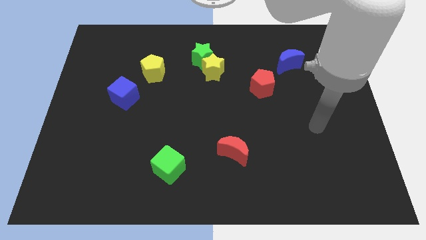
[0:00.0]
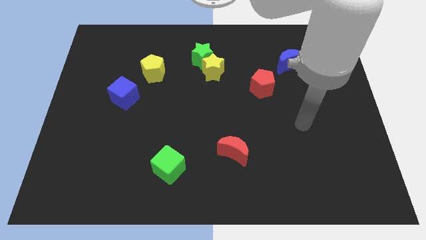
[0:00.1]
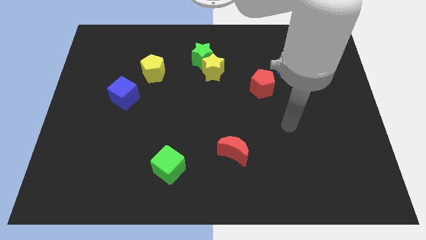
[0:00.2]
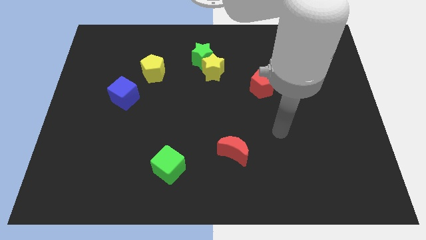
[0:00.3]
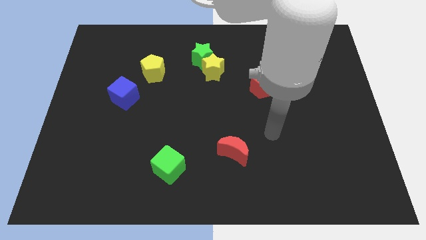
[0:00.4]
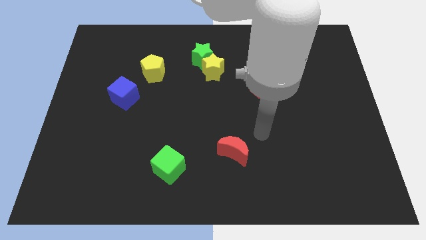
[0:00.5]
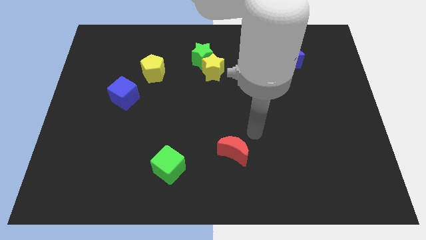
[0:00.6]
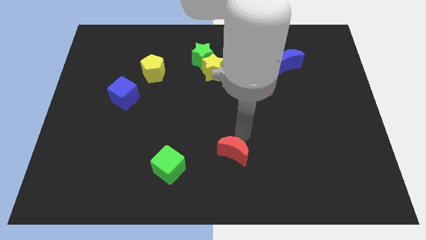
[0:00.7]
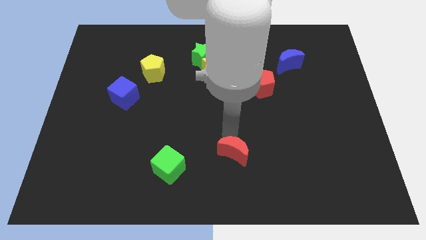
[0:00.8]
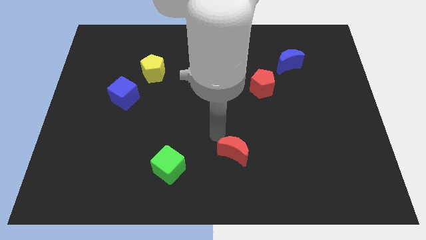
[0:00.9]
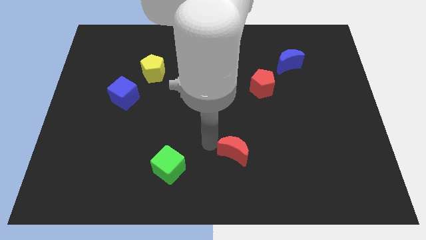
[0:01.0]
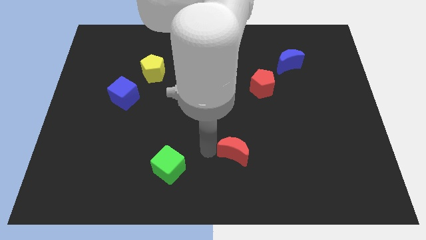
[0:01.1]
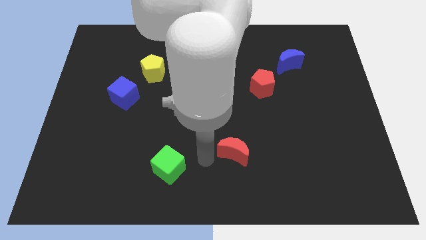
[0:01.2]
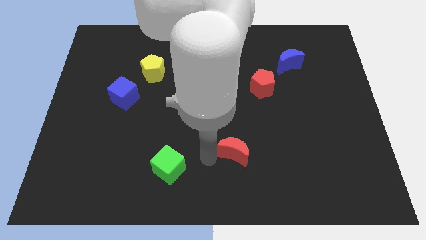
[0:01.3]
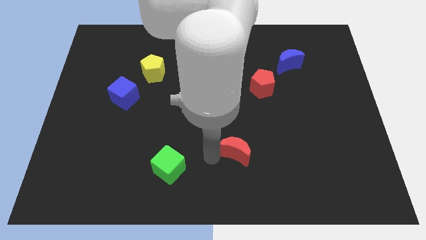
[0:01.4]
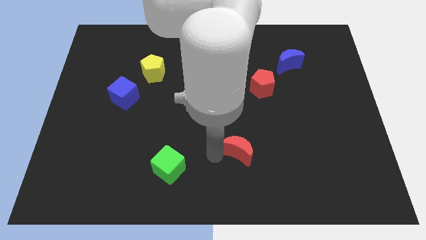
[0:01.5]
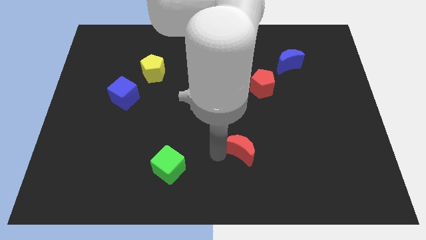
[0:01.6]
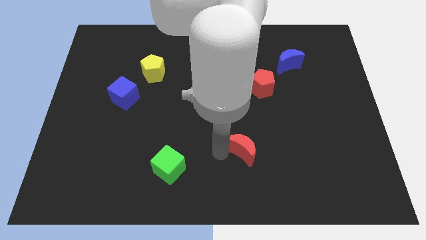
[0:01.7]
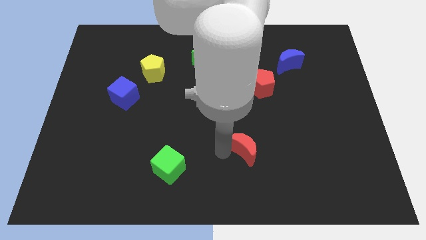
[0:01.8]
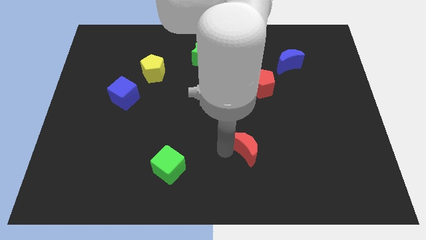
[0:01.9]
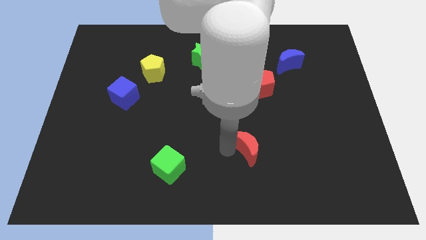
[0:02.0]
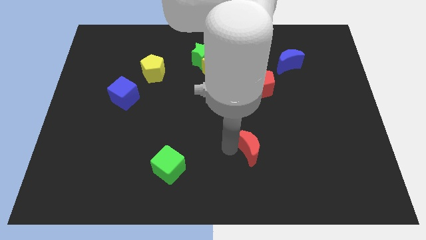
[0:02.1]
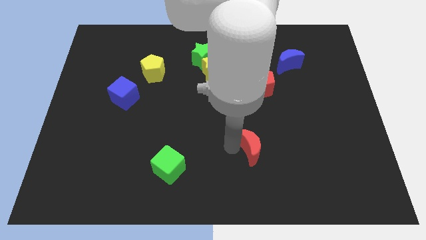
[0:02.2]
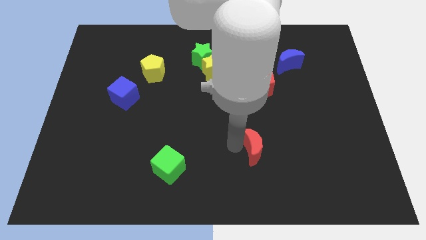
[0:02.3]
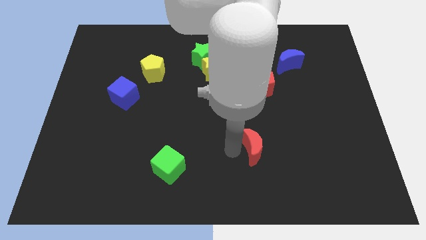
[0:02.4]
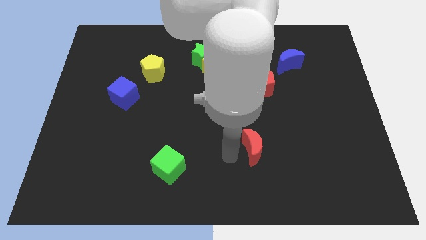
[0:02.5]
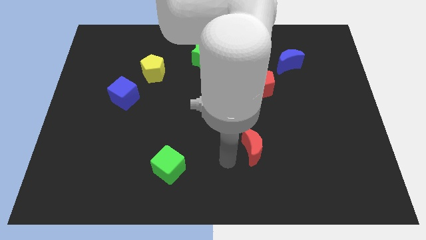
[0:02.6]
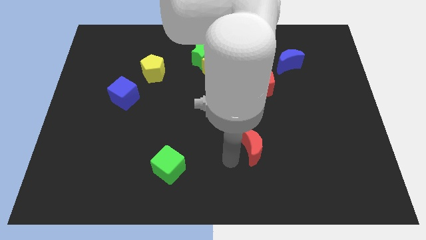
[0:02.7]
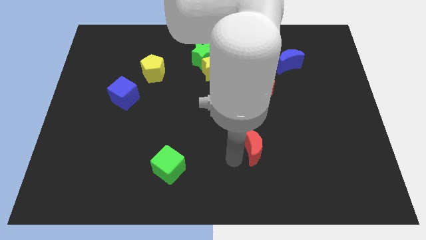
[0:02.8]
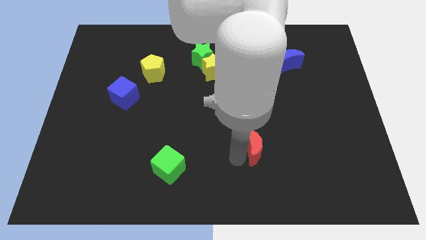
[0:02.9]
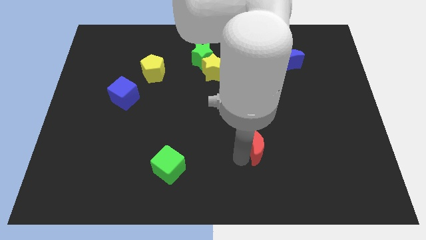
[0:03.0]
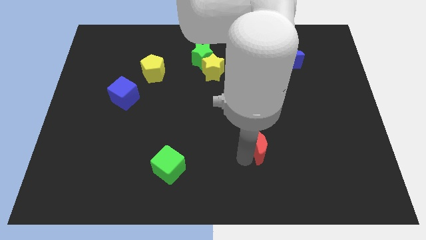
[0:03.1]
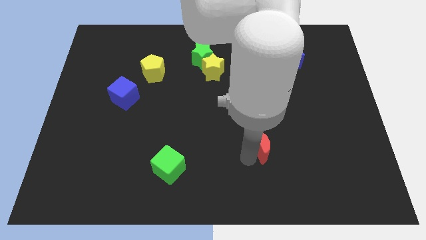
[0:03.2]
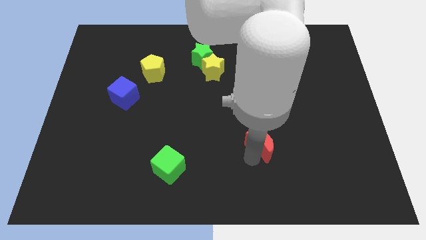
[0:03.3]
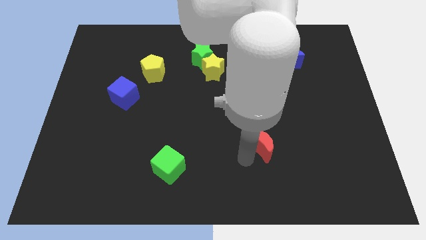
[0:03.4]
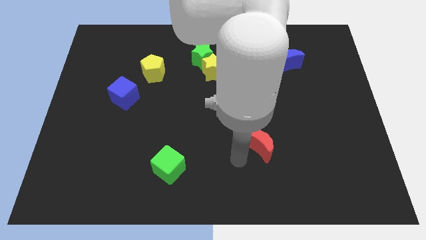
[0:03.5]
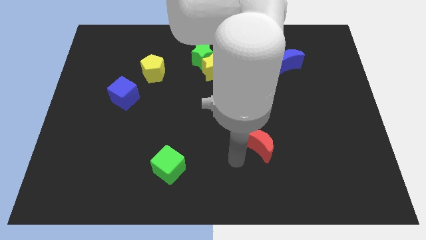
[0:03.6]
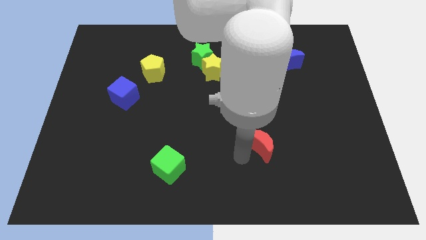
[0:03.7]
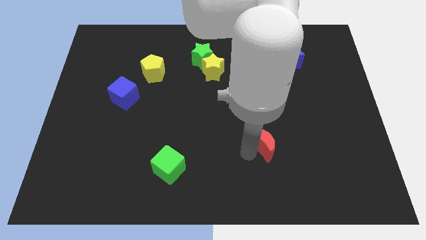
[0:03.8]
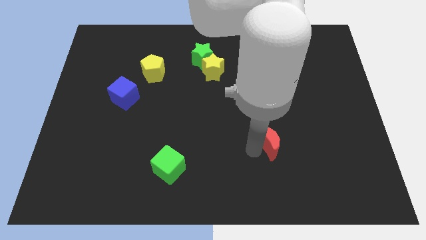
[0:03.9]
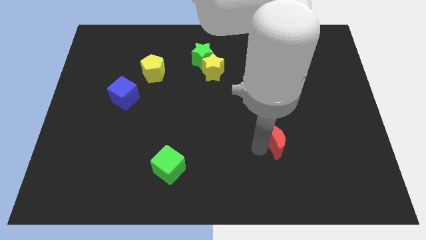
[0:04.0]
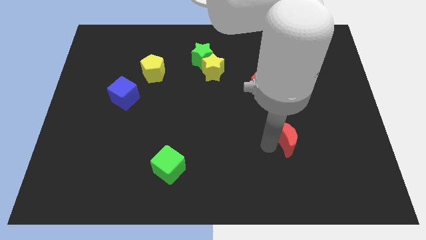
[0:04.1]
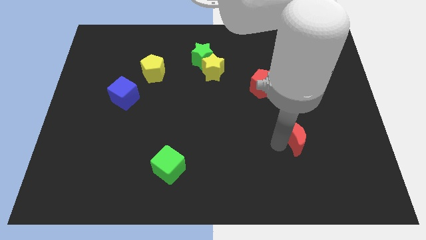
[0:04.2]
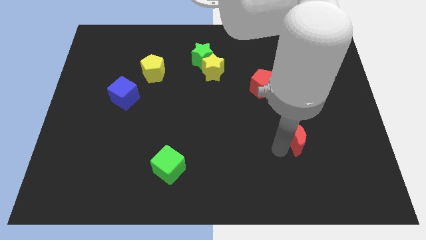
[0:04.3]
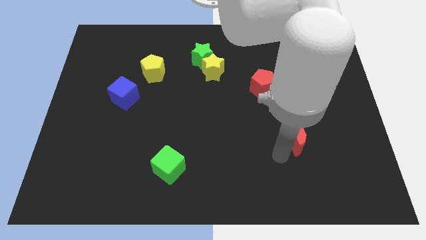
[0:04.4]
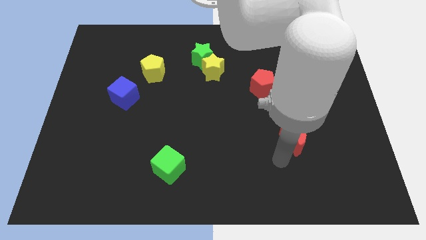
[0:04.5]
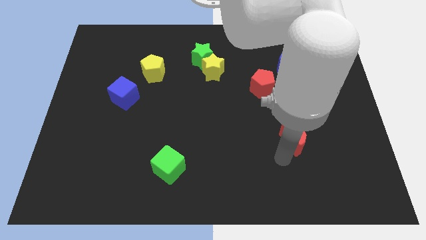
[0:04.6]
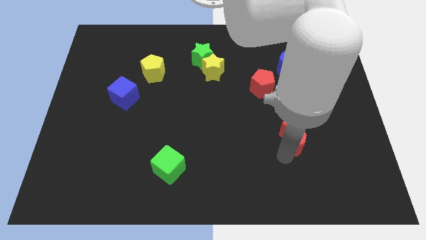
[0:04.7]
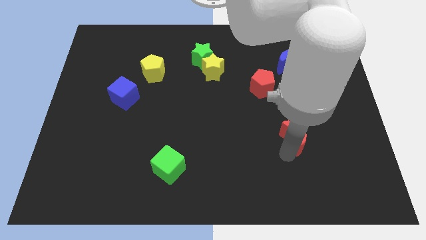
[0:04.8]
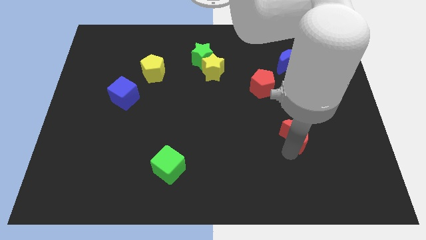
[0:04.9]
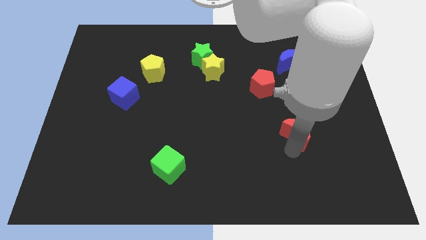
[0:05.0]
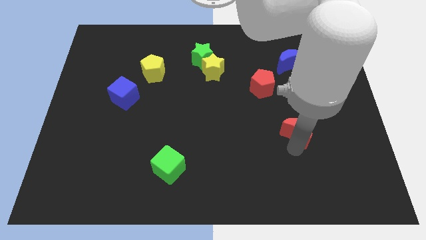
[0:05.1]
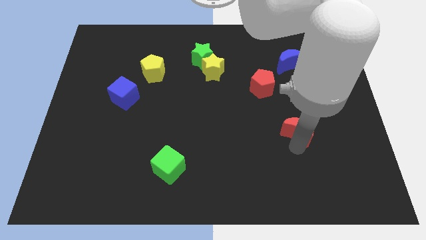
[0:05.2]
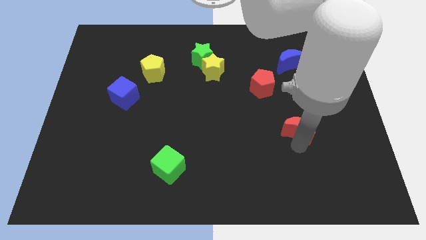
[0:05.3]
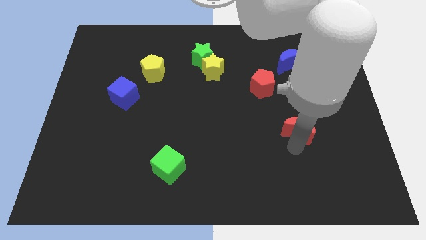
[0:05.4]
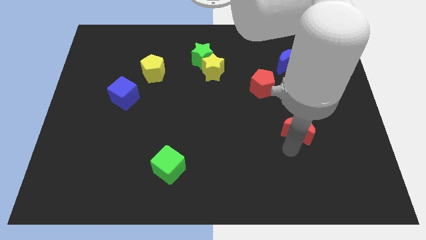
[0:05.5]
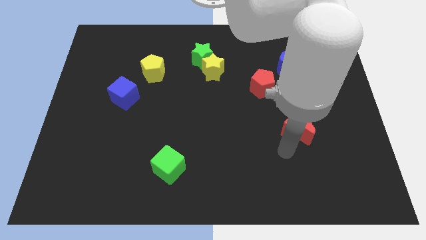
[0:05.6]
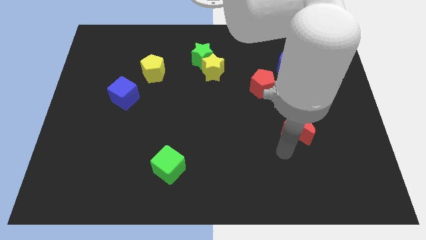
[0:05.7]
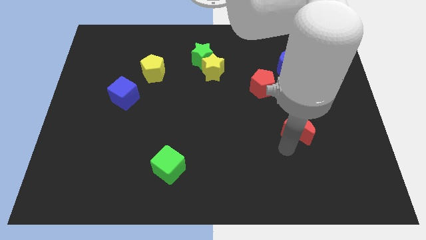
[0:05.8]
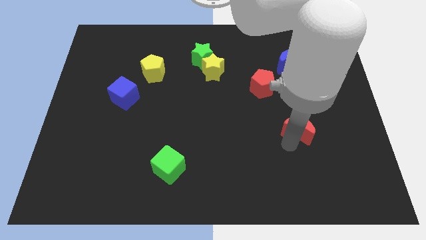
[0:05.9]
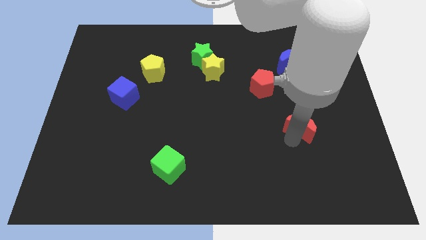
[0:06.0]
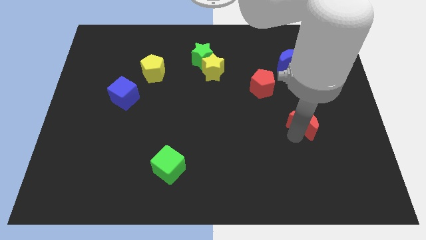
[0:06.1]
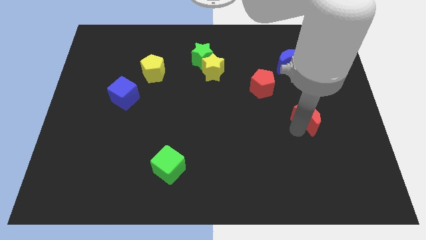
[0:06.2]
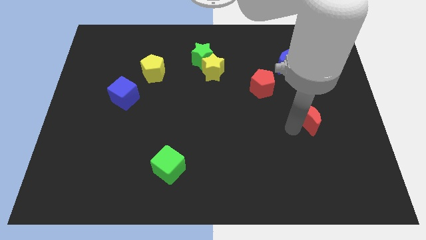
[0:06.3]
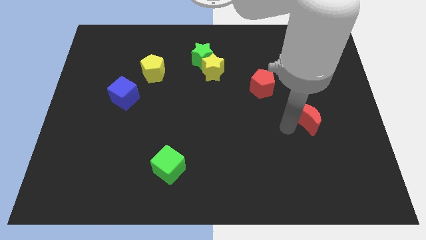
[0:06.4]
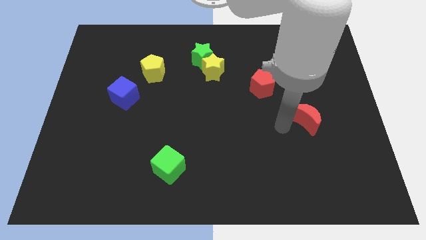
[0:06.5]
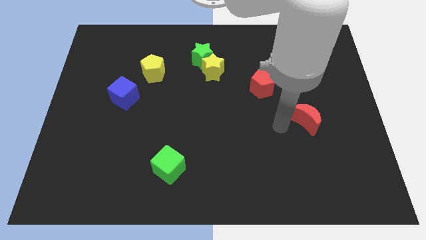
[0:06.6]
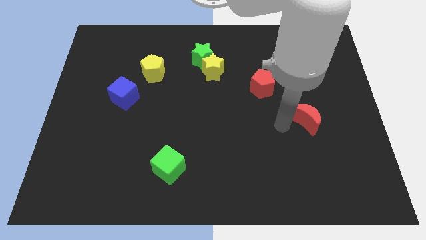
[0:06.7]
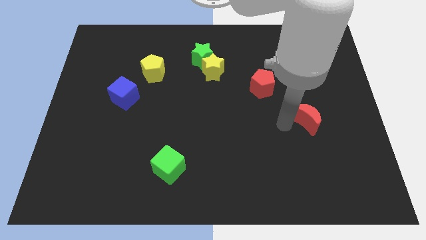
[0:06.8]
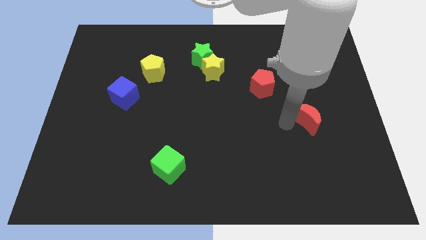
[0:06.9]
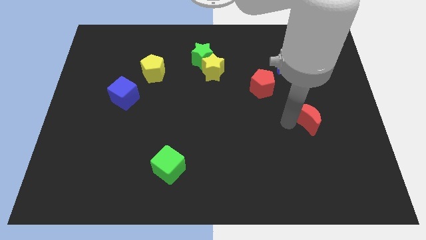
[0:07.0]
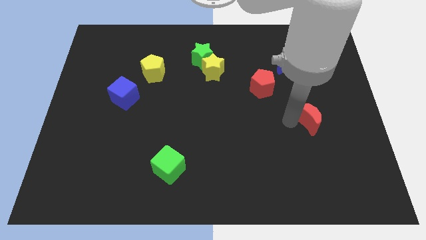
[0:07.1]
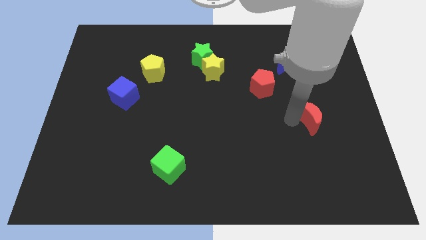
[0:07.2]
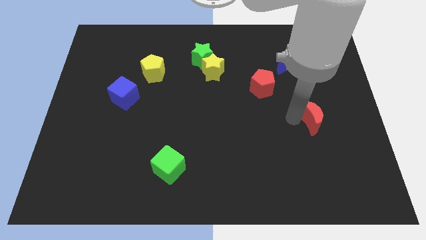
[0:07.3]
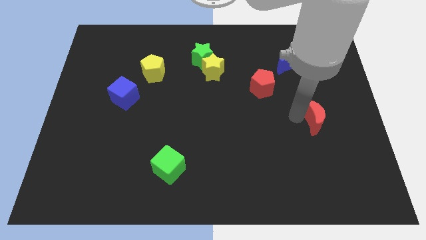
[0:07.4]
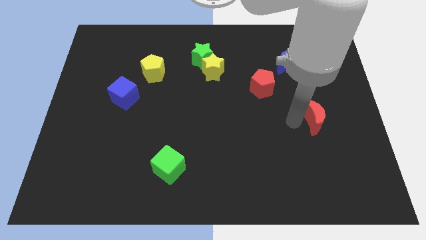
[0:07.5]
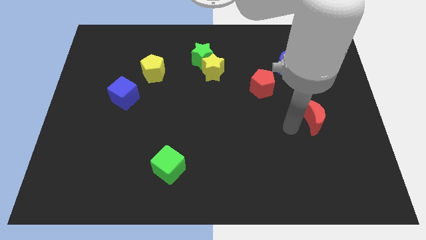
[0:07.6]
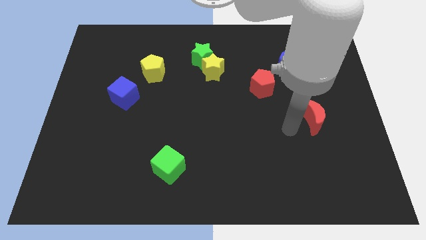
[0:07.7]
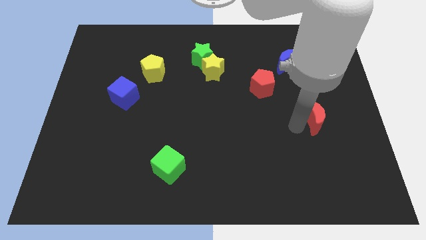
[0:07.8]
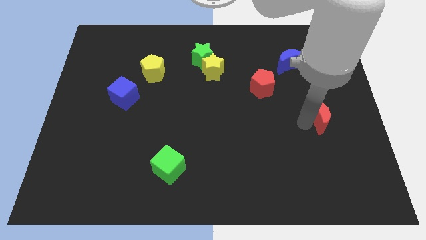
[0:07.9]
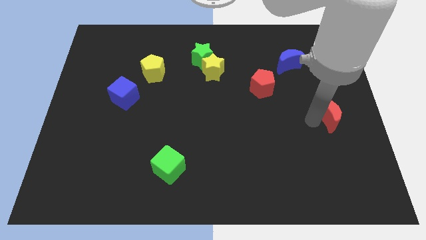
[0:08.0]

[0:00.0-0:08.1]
put the red moon to the right side of the board
